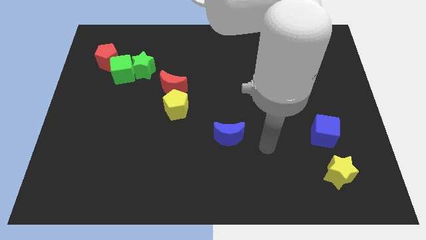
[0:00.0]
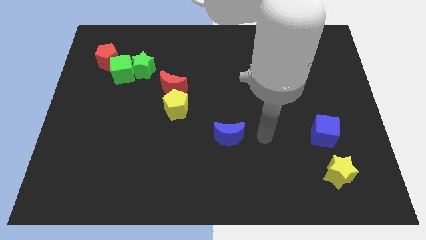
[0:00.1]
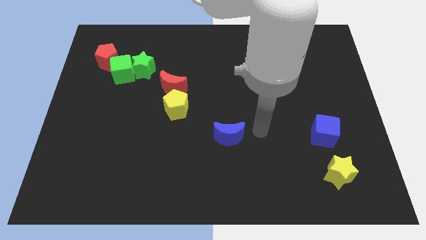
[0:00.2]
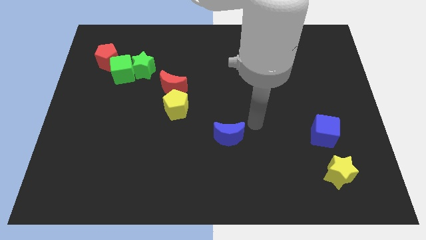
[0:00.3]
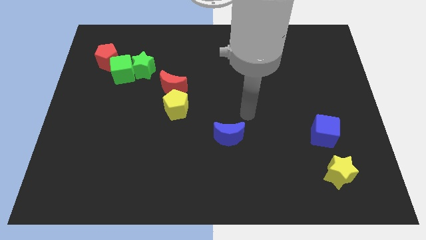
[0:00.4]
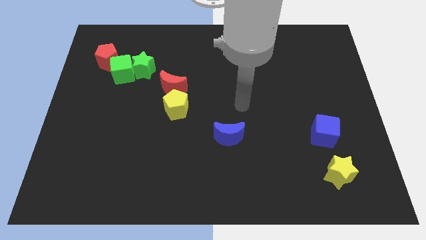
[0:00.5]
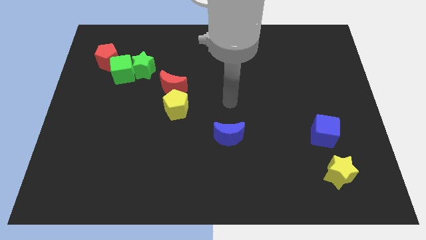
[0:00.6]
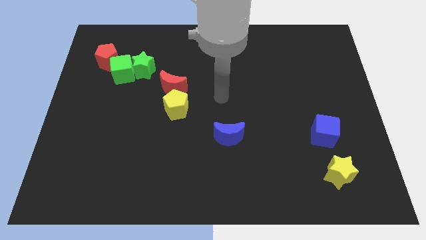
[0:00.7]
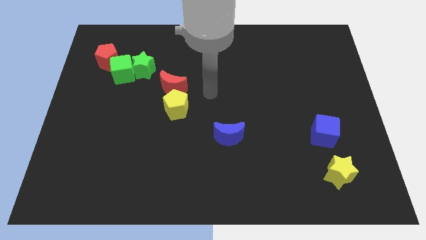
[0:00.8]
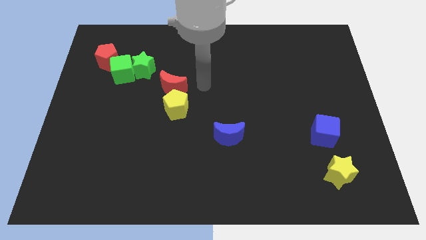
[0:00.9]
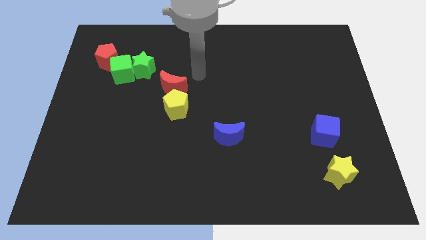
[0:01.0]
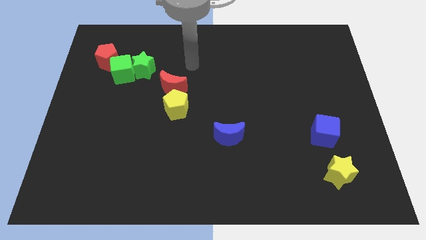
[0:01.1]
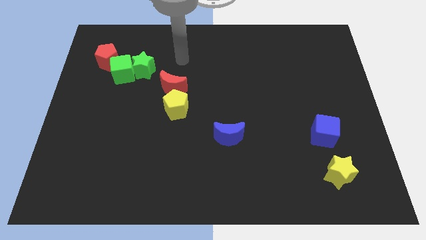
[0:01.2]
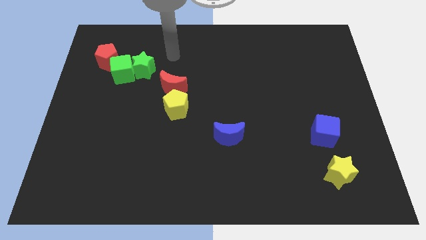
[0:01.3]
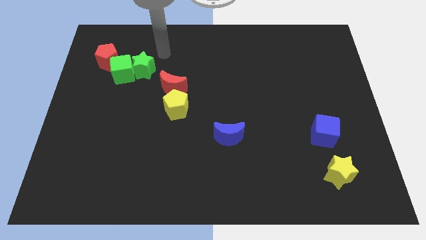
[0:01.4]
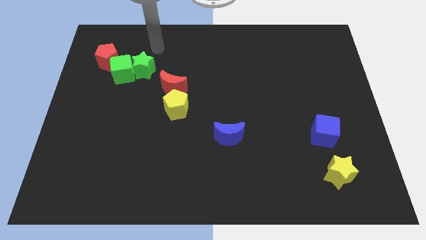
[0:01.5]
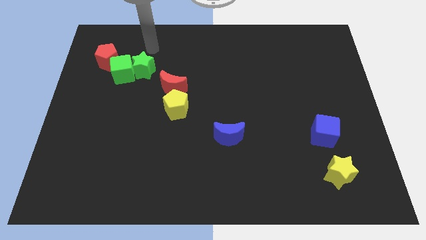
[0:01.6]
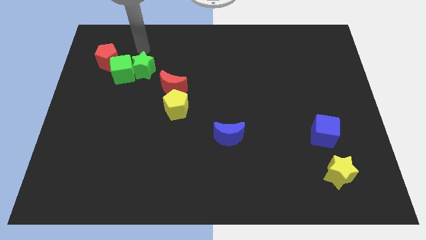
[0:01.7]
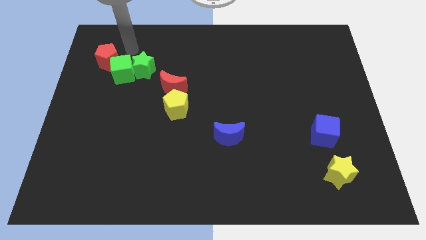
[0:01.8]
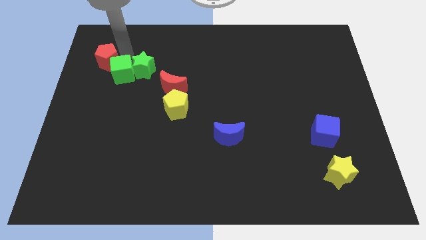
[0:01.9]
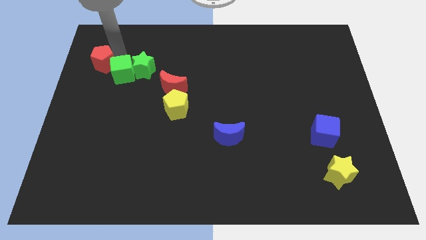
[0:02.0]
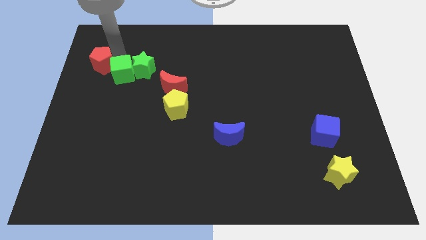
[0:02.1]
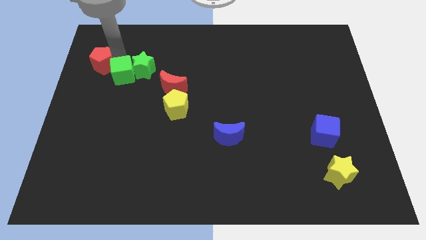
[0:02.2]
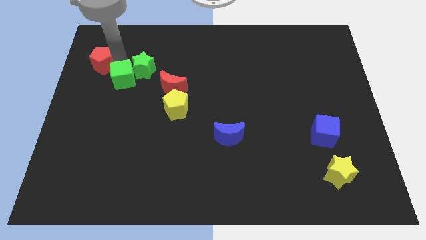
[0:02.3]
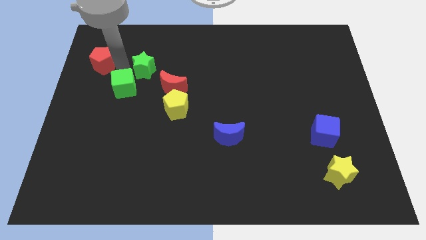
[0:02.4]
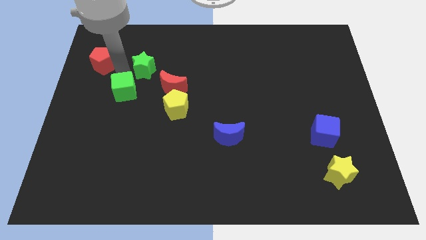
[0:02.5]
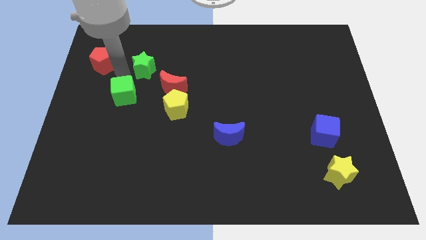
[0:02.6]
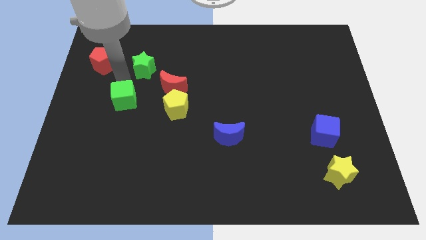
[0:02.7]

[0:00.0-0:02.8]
separate the green cube from the green star and red pentagon

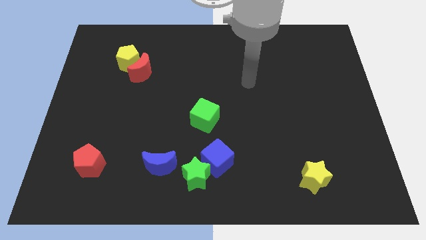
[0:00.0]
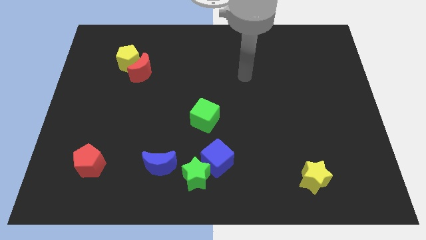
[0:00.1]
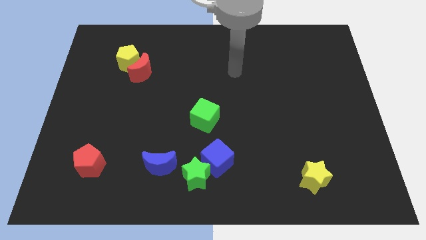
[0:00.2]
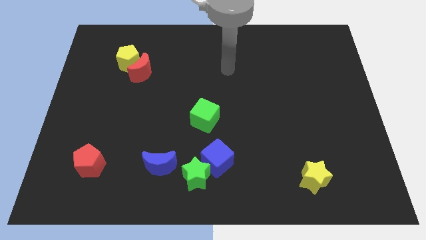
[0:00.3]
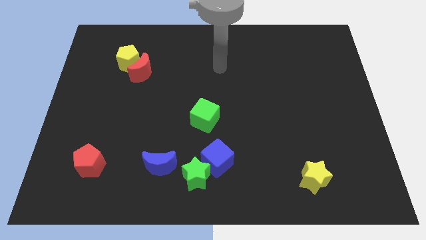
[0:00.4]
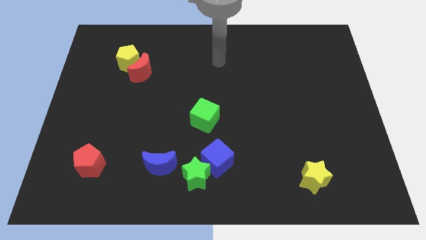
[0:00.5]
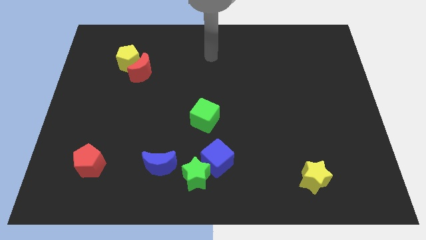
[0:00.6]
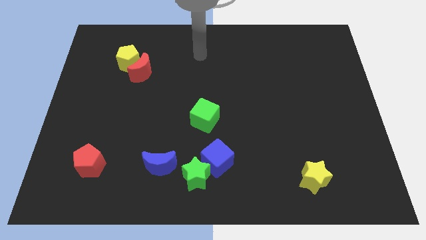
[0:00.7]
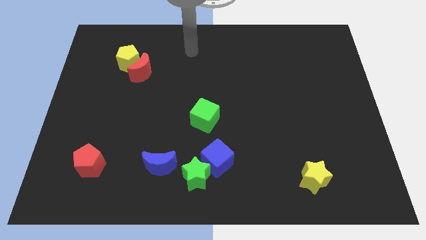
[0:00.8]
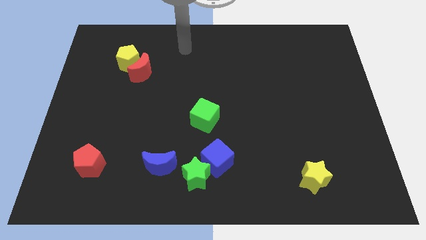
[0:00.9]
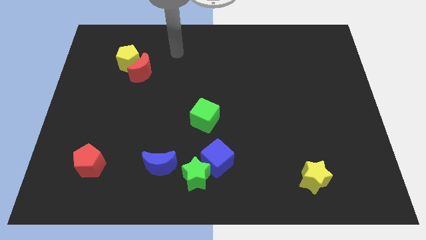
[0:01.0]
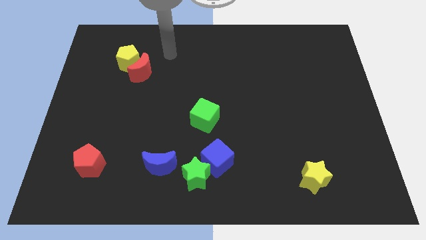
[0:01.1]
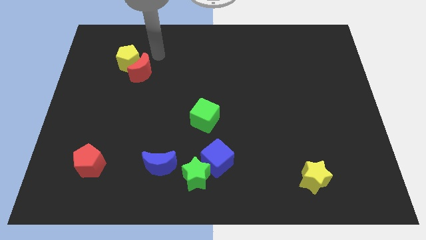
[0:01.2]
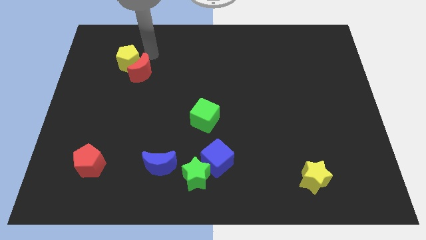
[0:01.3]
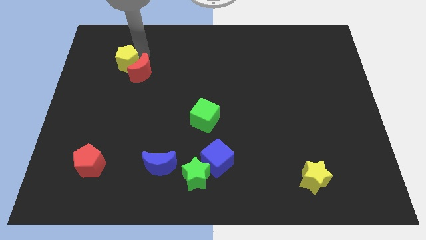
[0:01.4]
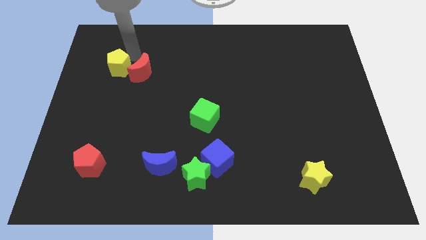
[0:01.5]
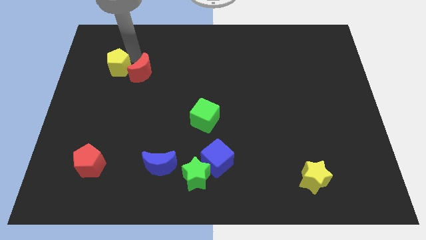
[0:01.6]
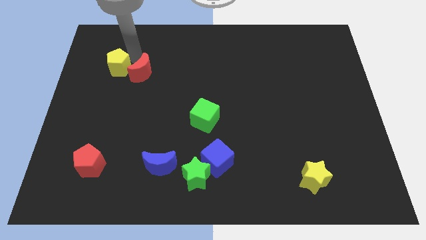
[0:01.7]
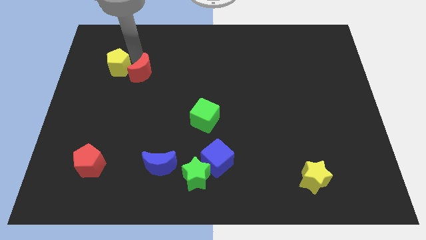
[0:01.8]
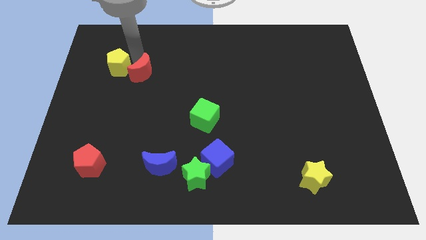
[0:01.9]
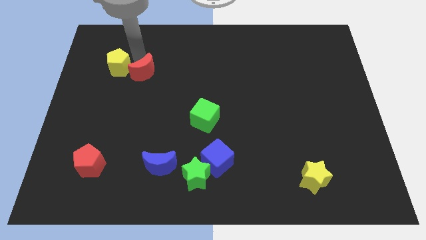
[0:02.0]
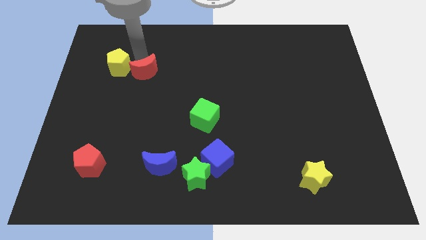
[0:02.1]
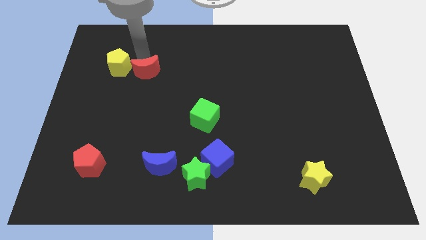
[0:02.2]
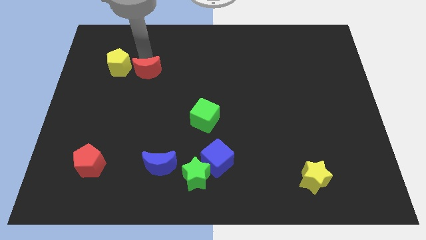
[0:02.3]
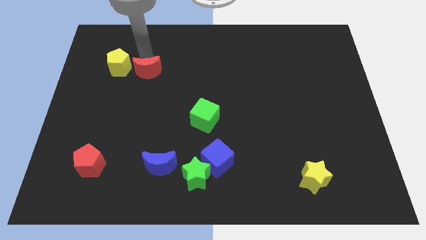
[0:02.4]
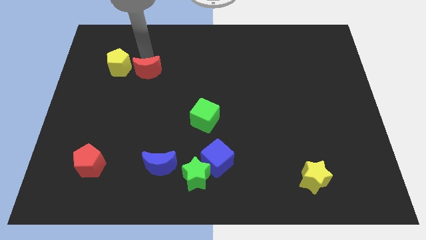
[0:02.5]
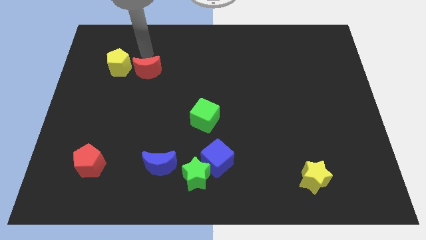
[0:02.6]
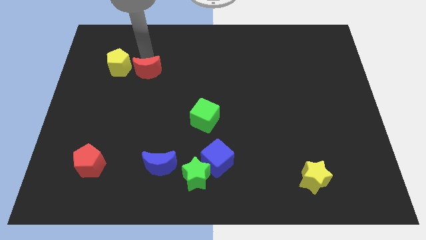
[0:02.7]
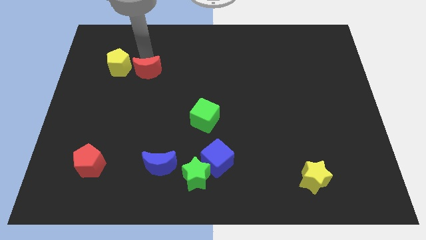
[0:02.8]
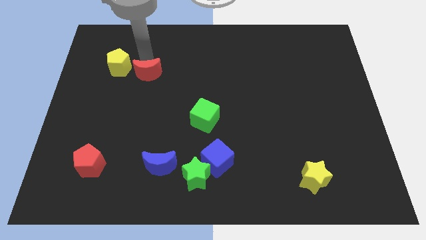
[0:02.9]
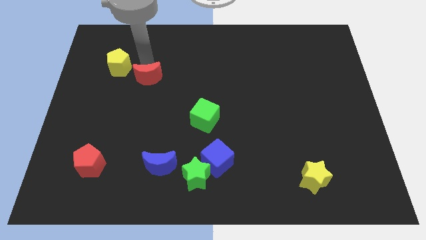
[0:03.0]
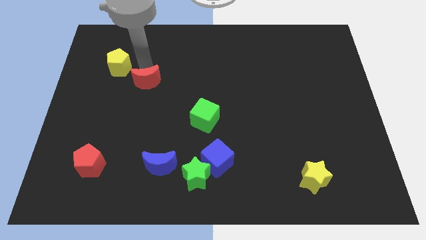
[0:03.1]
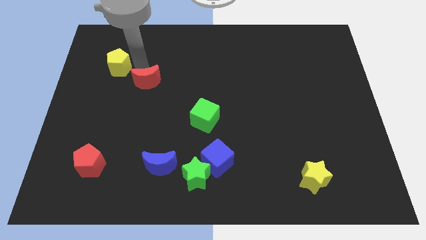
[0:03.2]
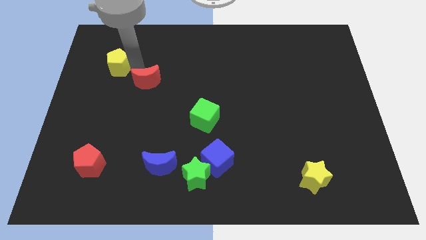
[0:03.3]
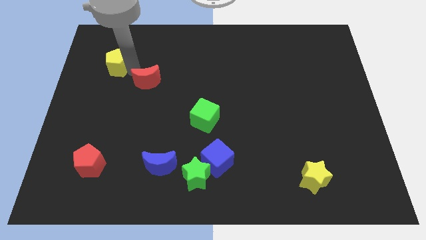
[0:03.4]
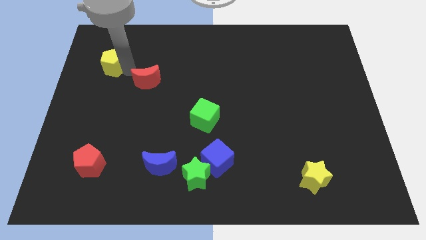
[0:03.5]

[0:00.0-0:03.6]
pull the red moon apart from the yellow pentagon

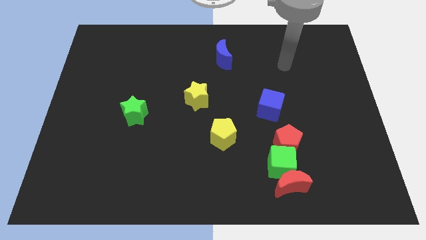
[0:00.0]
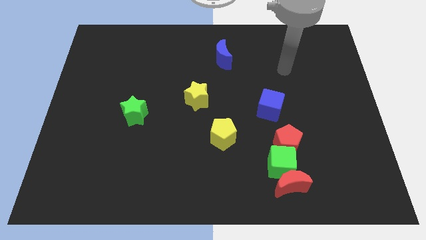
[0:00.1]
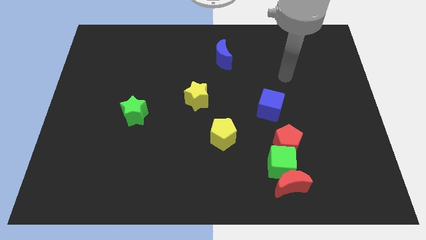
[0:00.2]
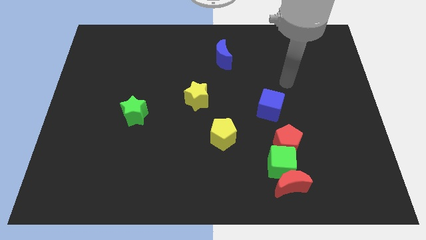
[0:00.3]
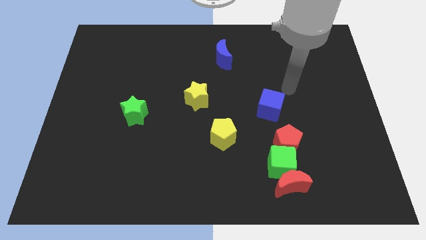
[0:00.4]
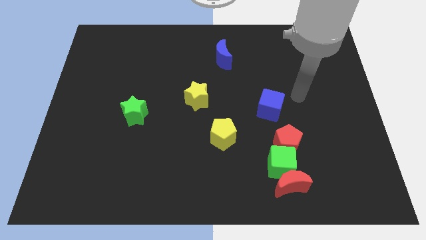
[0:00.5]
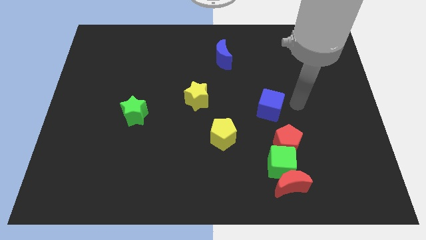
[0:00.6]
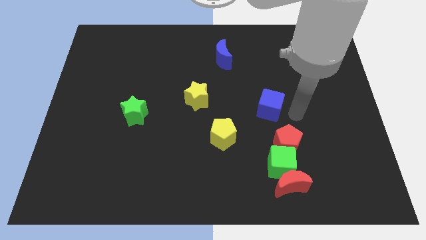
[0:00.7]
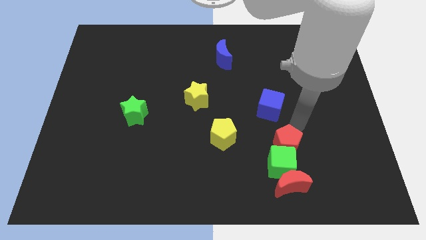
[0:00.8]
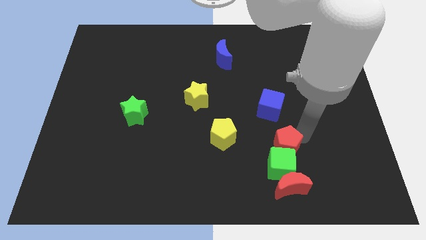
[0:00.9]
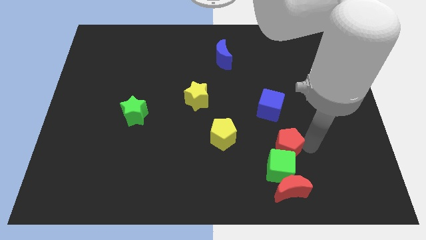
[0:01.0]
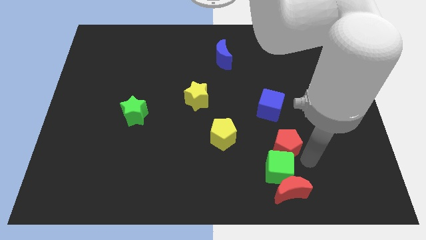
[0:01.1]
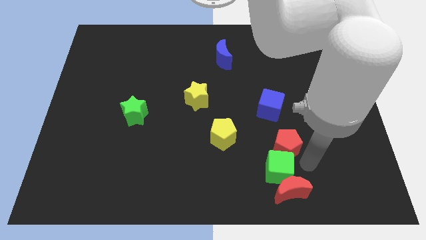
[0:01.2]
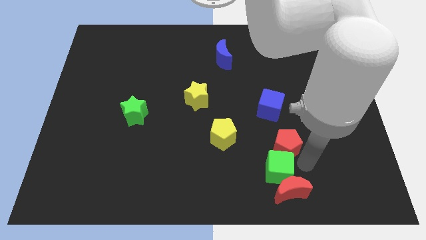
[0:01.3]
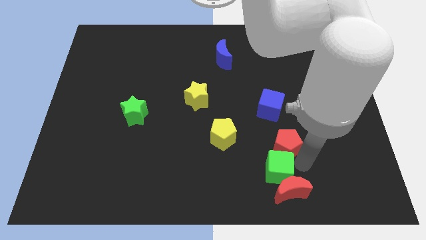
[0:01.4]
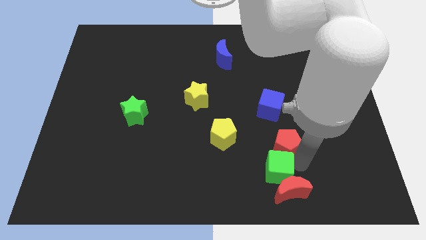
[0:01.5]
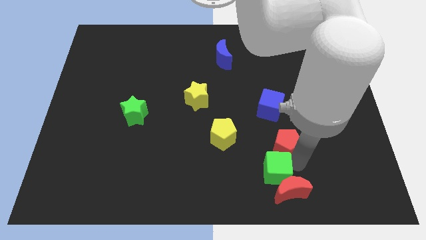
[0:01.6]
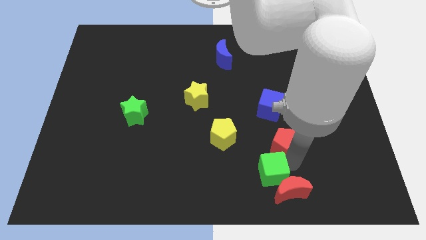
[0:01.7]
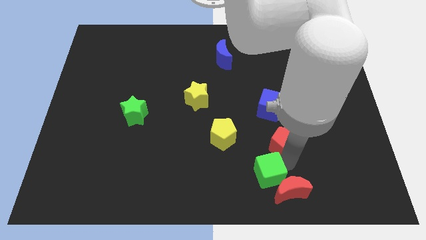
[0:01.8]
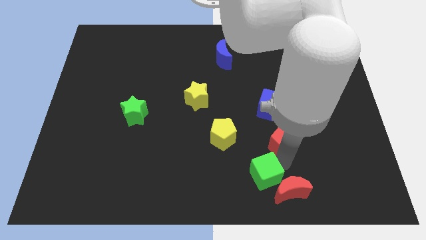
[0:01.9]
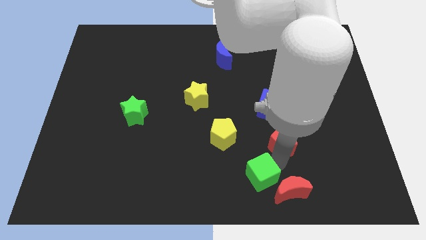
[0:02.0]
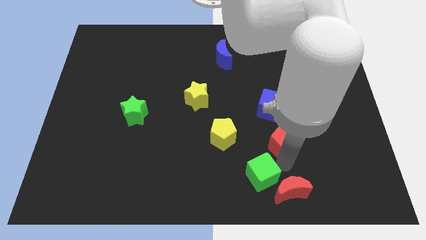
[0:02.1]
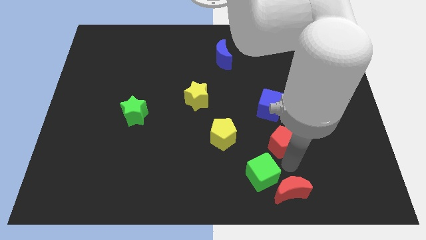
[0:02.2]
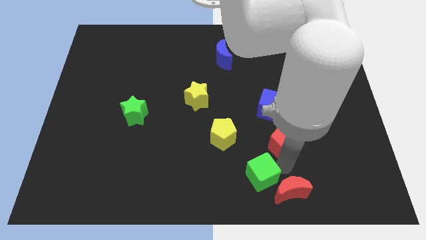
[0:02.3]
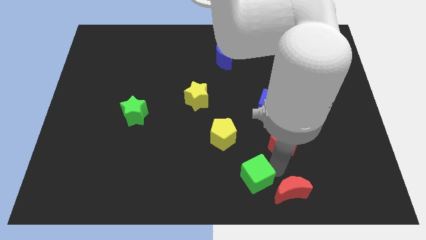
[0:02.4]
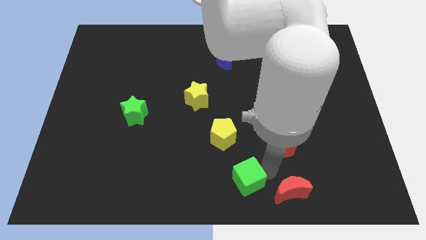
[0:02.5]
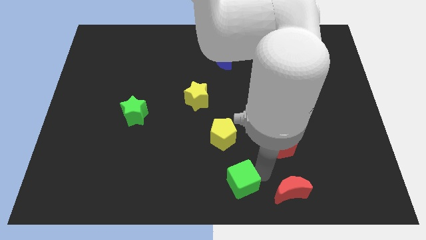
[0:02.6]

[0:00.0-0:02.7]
move the green cube away from the red moon and red pentagon

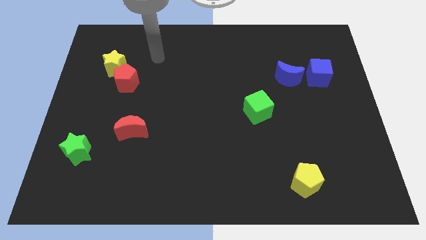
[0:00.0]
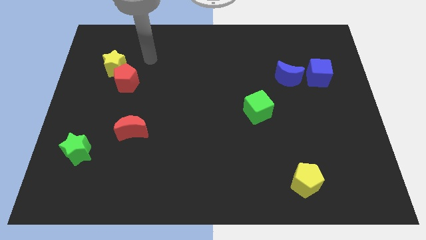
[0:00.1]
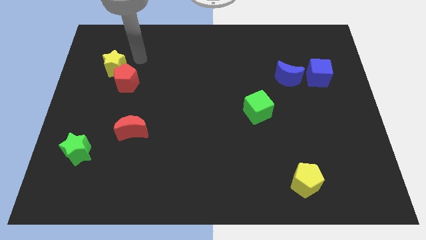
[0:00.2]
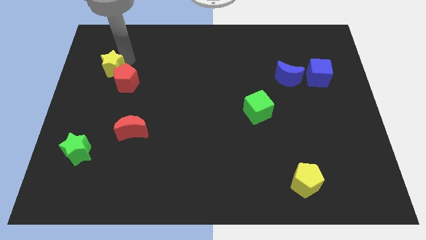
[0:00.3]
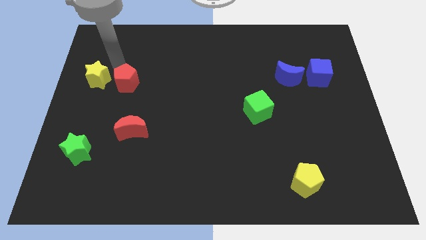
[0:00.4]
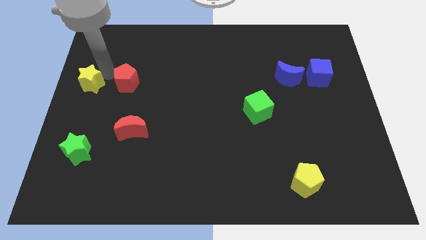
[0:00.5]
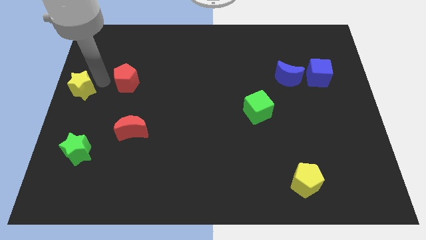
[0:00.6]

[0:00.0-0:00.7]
pull the red pentagon apart from the yellow star
